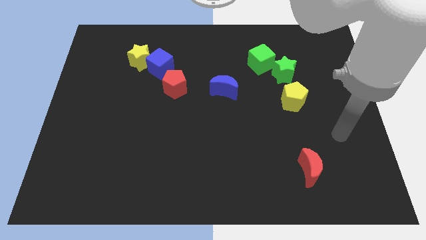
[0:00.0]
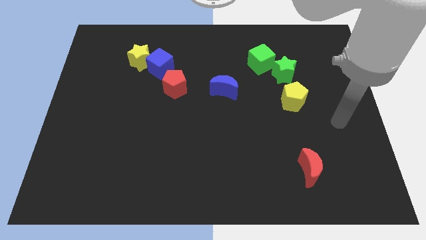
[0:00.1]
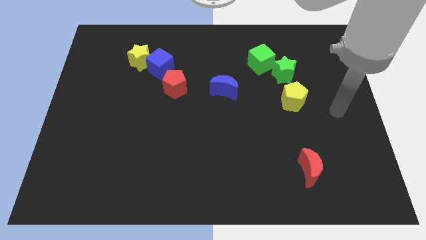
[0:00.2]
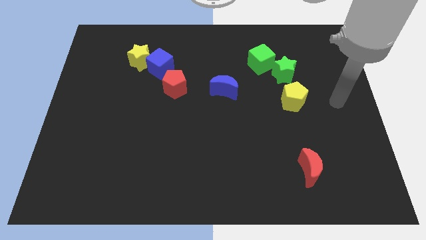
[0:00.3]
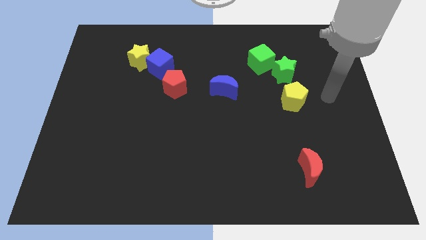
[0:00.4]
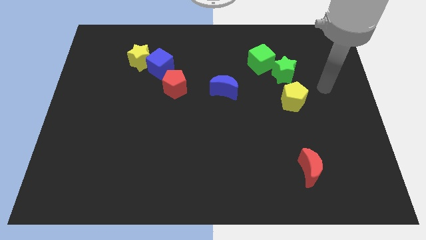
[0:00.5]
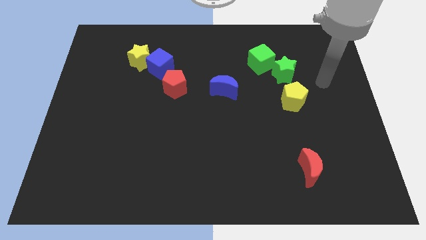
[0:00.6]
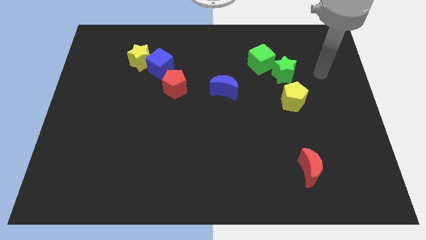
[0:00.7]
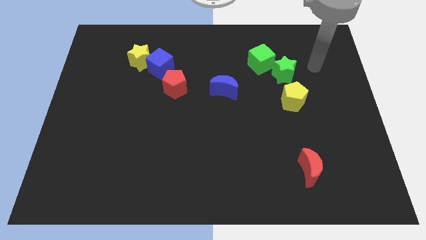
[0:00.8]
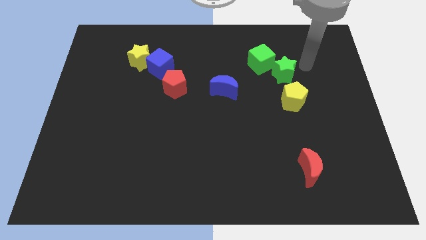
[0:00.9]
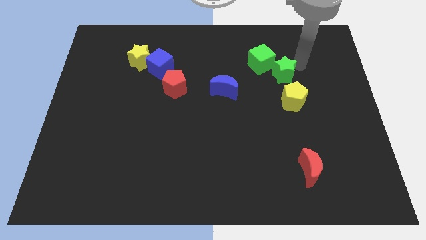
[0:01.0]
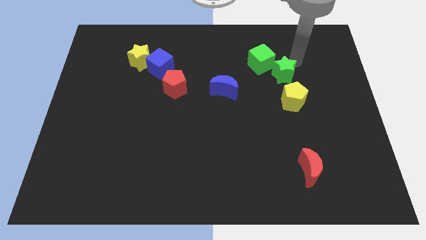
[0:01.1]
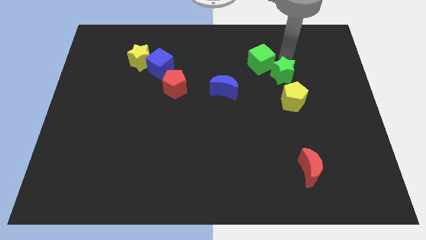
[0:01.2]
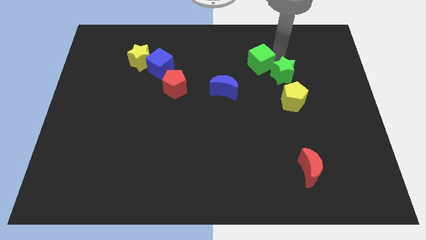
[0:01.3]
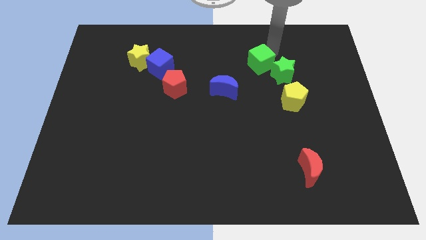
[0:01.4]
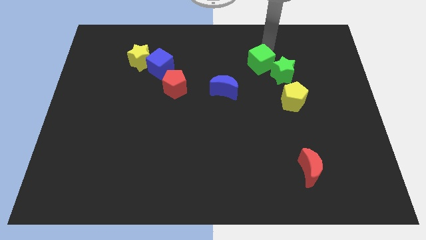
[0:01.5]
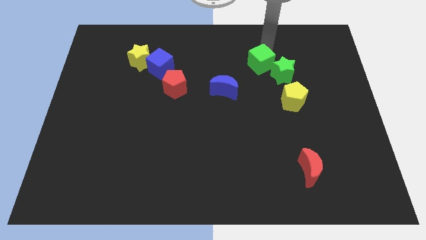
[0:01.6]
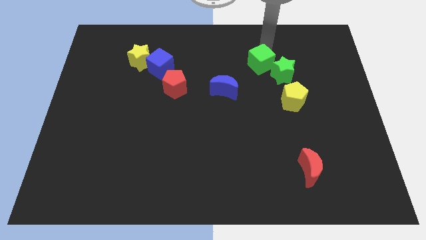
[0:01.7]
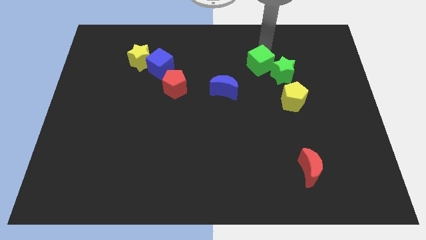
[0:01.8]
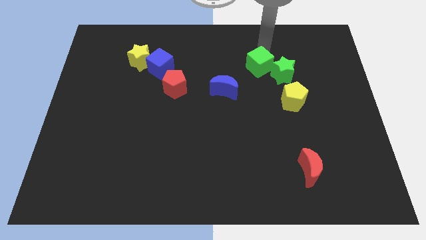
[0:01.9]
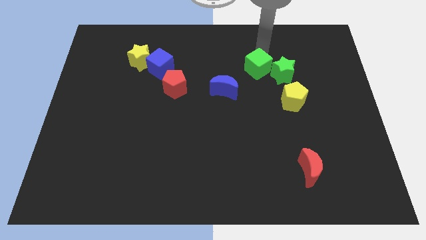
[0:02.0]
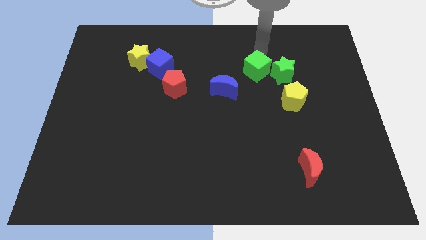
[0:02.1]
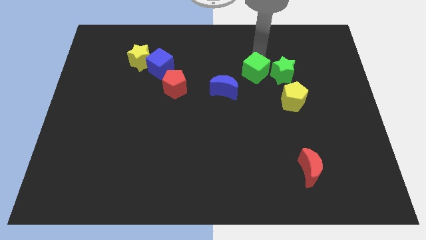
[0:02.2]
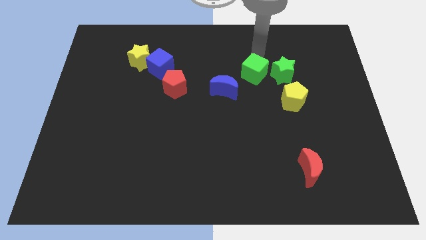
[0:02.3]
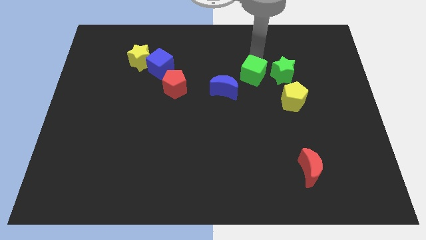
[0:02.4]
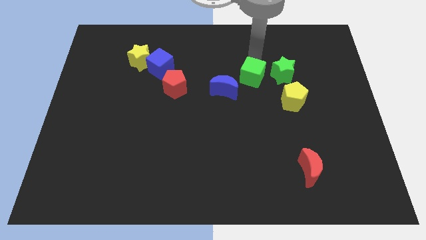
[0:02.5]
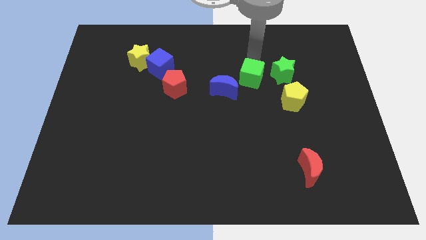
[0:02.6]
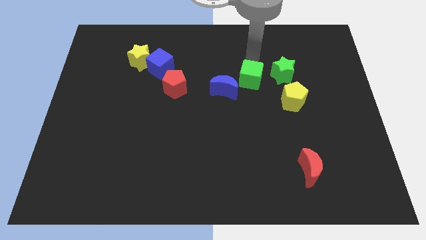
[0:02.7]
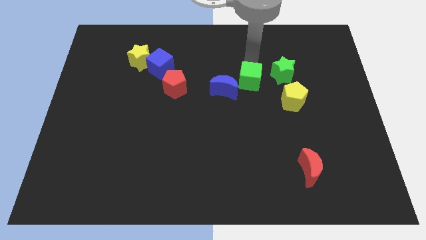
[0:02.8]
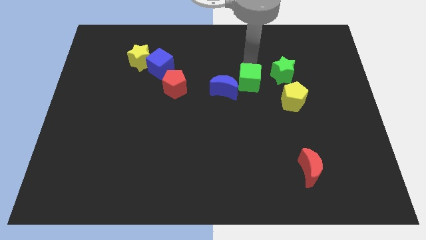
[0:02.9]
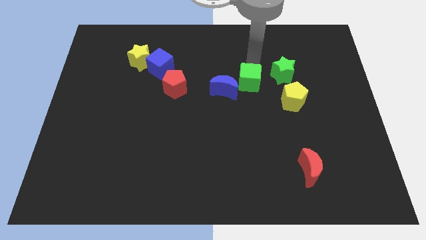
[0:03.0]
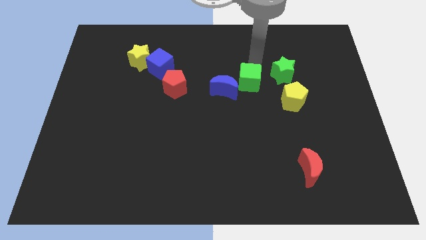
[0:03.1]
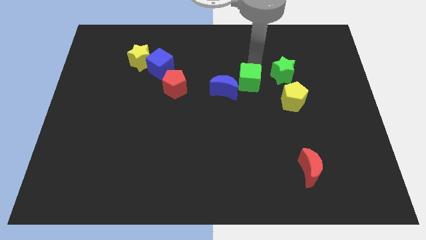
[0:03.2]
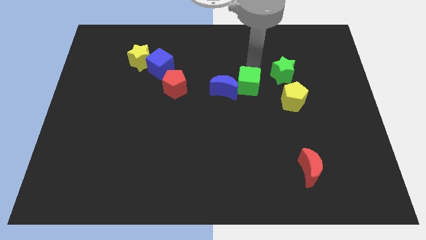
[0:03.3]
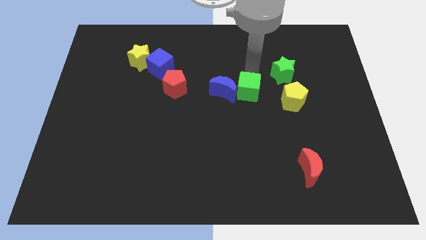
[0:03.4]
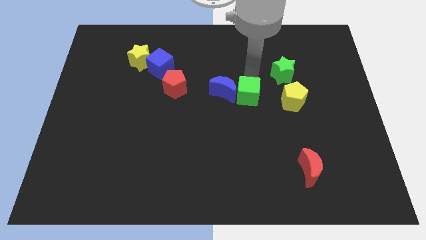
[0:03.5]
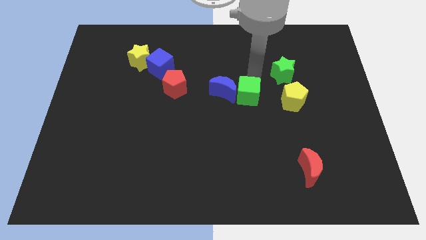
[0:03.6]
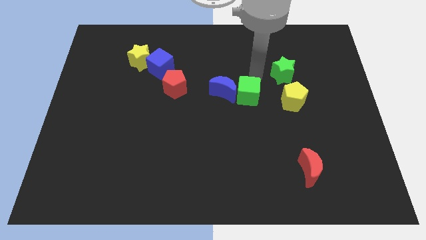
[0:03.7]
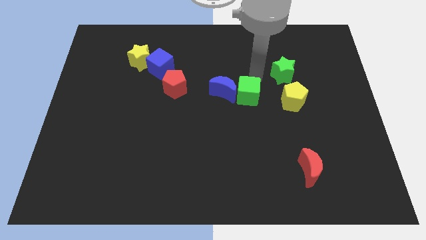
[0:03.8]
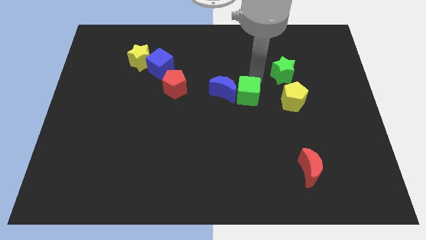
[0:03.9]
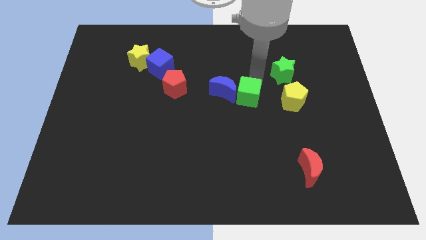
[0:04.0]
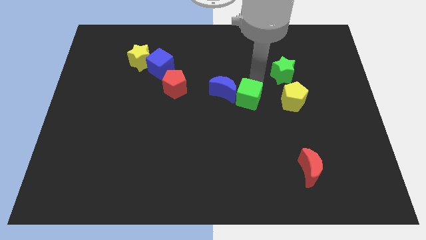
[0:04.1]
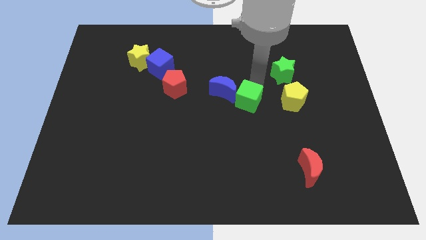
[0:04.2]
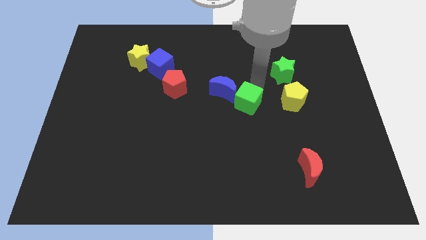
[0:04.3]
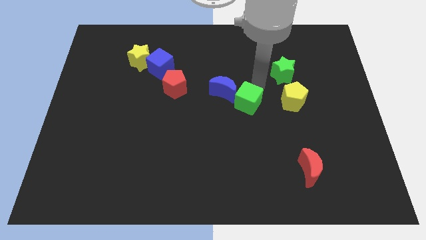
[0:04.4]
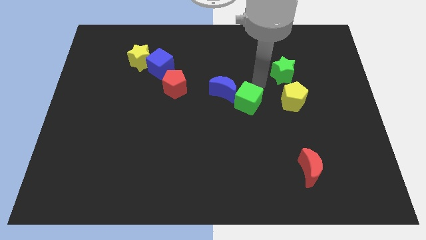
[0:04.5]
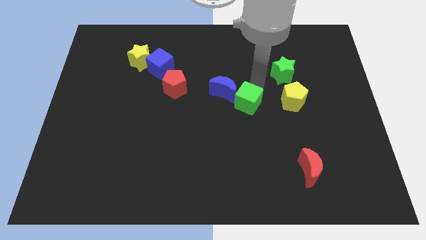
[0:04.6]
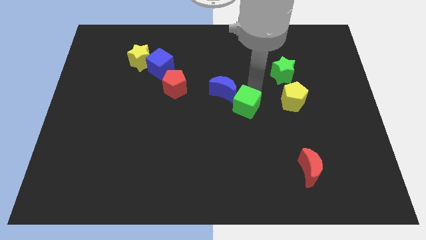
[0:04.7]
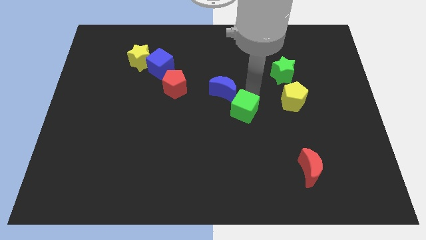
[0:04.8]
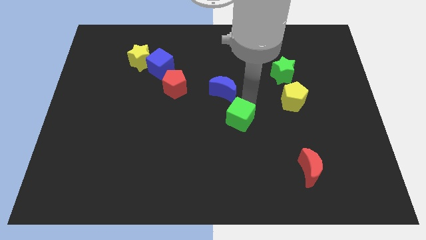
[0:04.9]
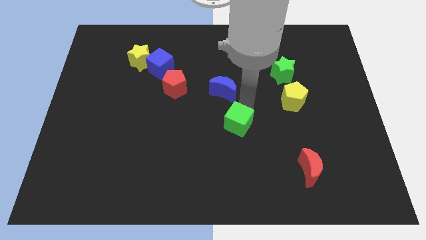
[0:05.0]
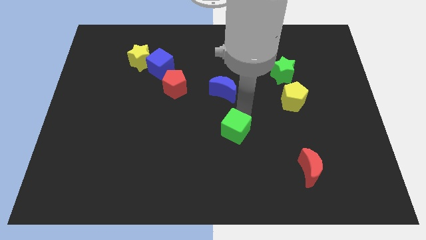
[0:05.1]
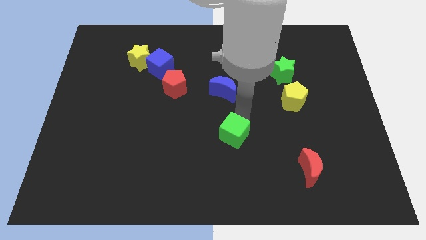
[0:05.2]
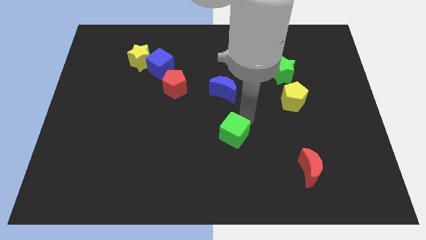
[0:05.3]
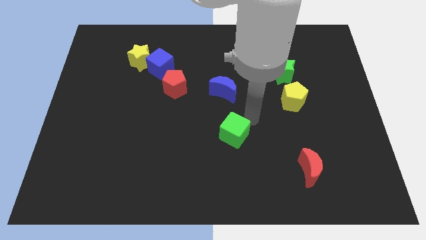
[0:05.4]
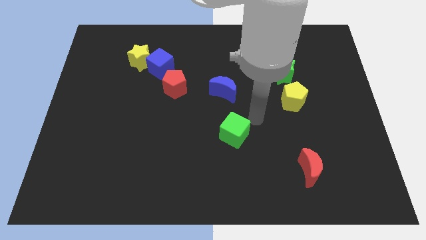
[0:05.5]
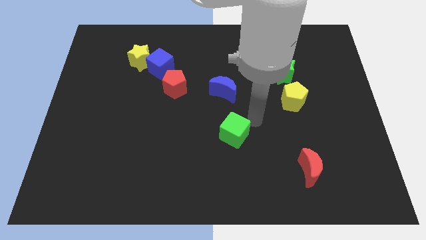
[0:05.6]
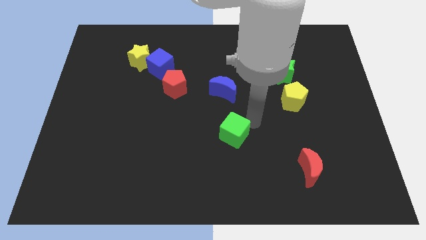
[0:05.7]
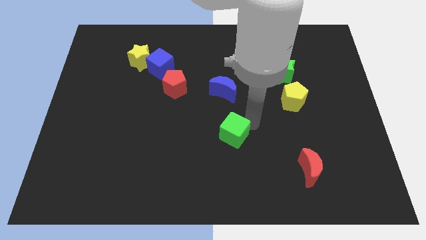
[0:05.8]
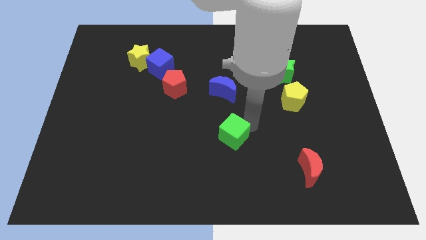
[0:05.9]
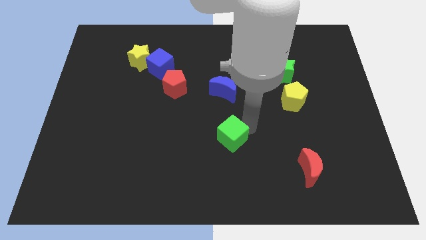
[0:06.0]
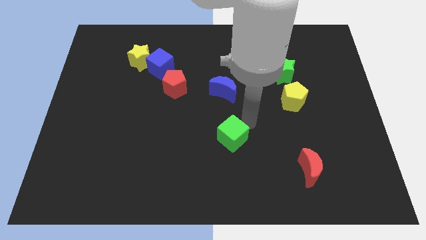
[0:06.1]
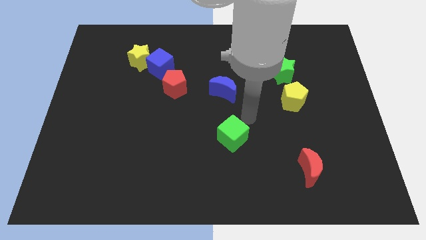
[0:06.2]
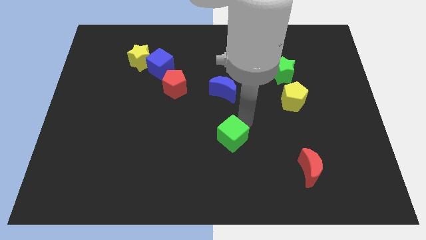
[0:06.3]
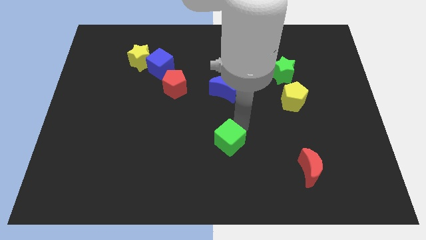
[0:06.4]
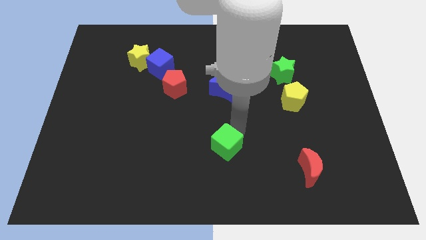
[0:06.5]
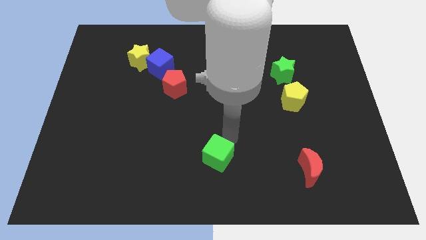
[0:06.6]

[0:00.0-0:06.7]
push the green cube to the bottom side

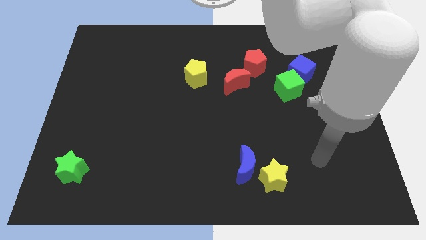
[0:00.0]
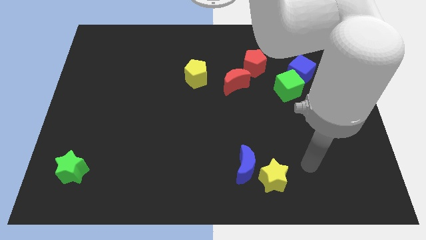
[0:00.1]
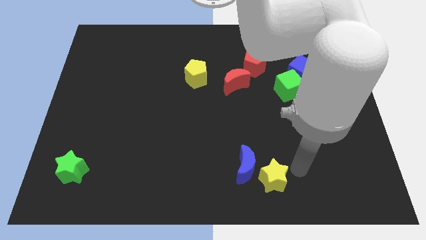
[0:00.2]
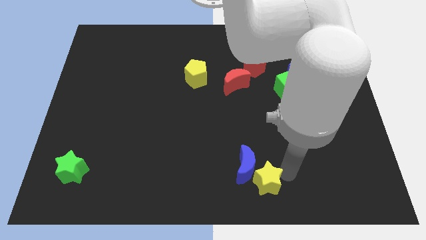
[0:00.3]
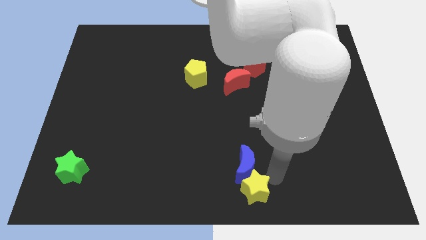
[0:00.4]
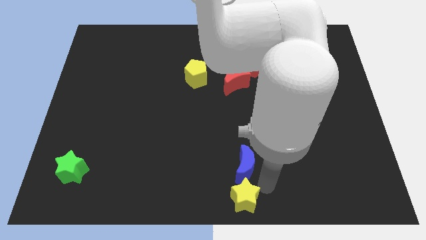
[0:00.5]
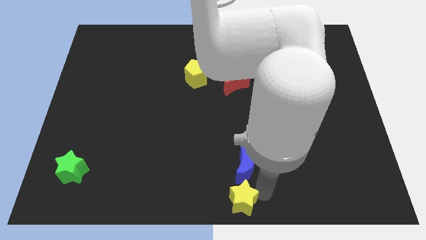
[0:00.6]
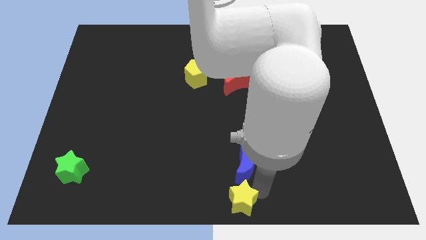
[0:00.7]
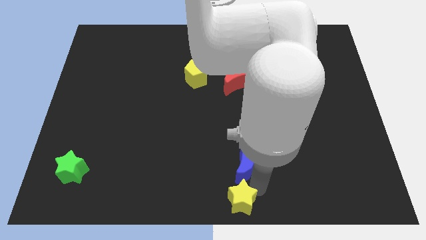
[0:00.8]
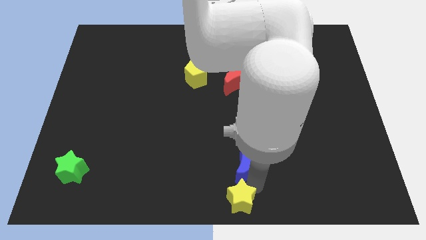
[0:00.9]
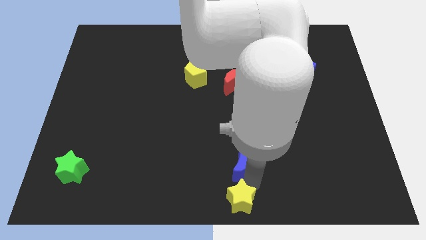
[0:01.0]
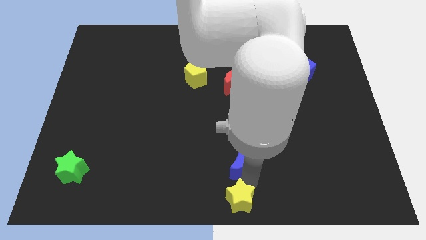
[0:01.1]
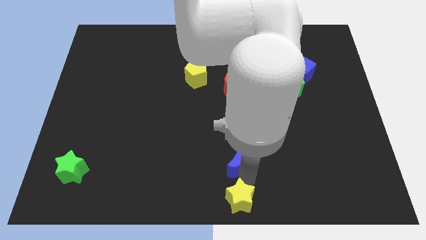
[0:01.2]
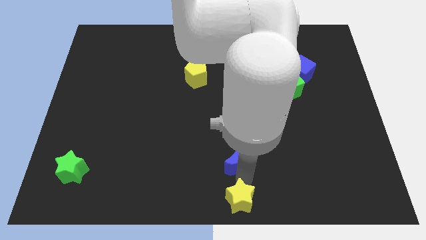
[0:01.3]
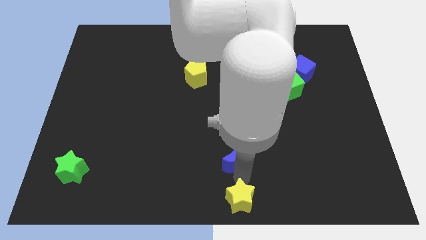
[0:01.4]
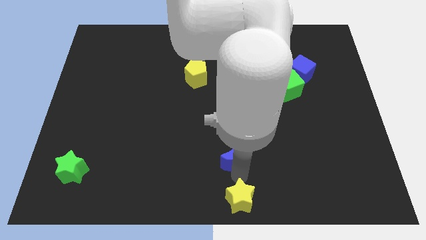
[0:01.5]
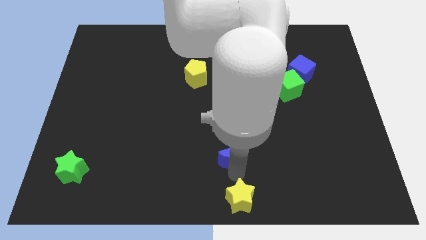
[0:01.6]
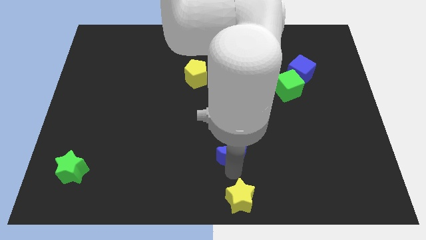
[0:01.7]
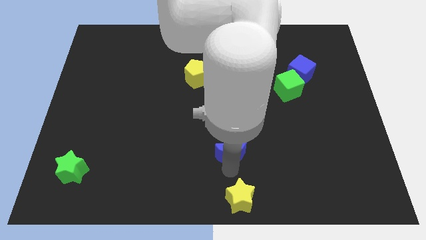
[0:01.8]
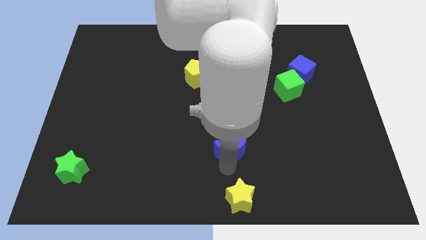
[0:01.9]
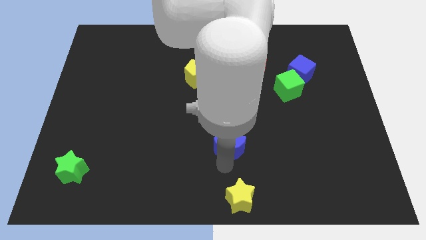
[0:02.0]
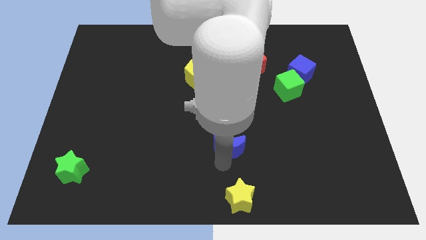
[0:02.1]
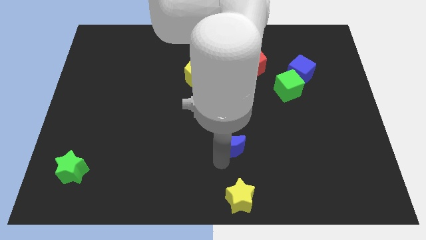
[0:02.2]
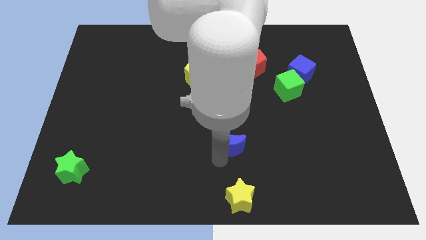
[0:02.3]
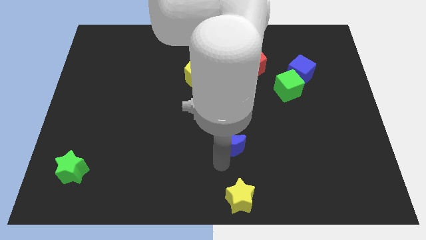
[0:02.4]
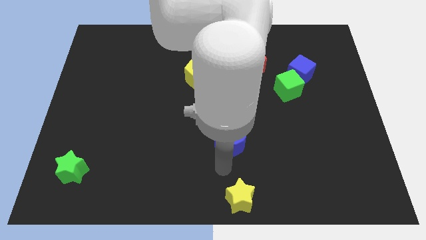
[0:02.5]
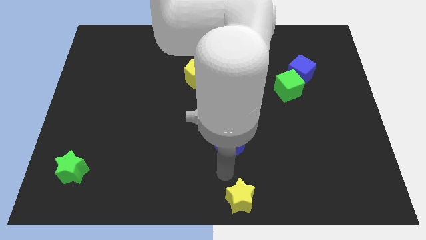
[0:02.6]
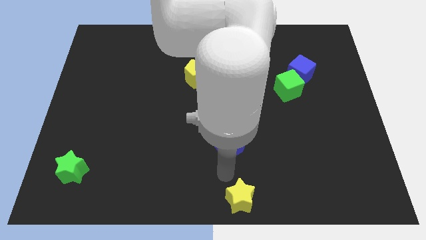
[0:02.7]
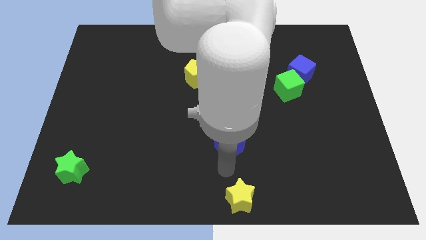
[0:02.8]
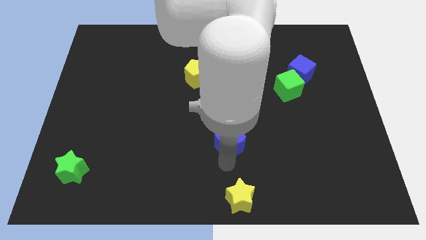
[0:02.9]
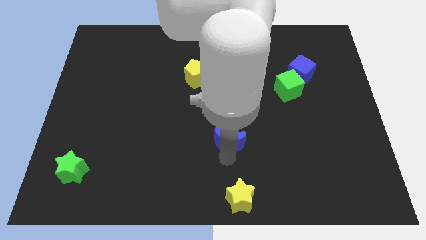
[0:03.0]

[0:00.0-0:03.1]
slide the blue moon to the middle of the board
